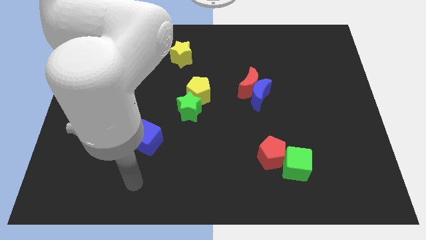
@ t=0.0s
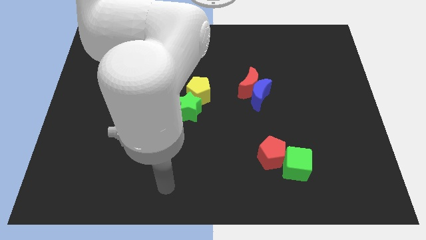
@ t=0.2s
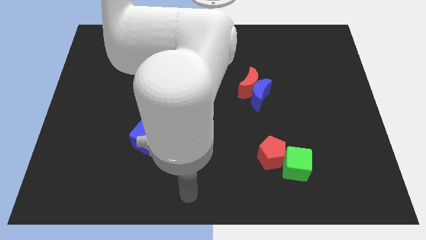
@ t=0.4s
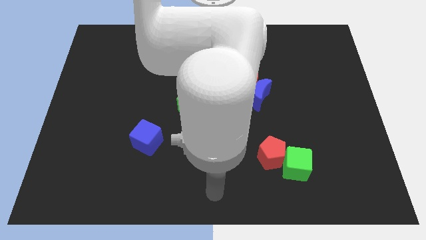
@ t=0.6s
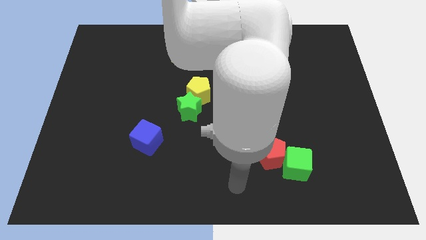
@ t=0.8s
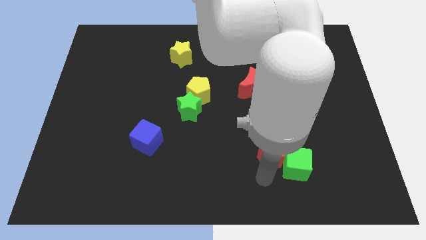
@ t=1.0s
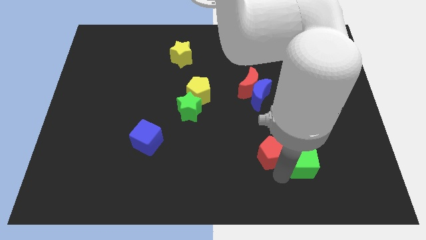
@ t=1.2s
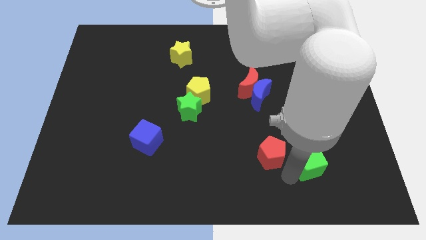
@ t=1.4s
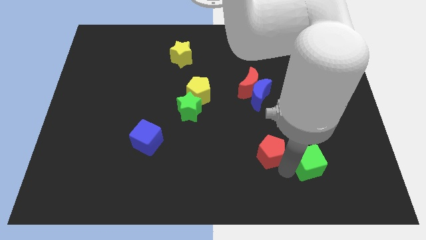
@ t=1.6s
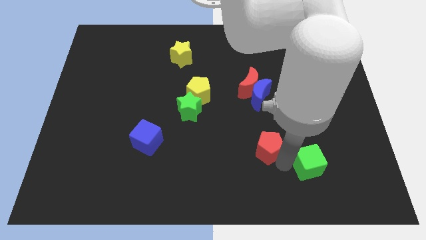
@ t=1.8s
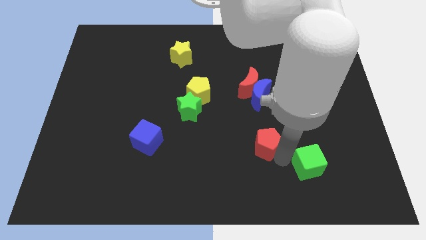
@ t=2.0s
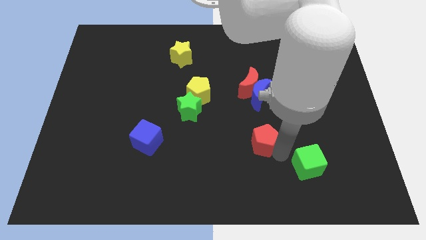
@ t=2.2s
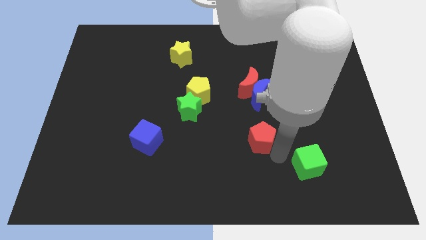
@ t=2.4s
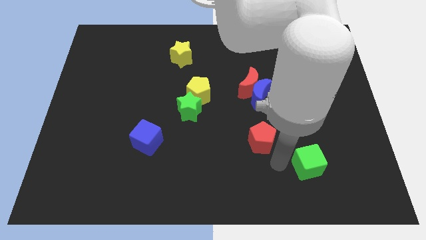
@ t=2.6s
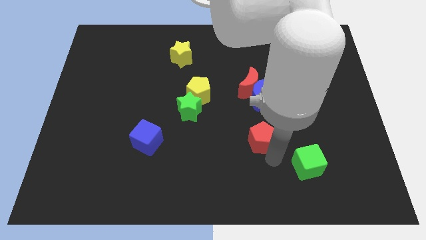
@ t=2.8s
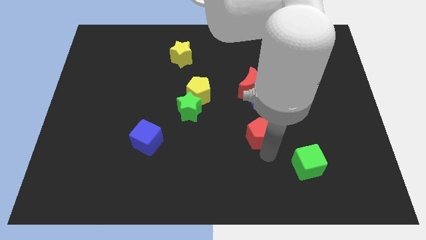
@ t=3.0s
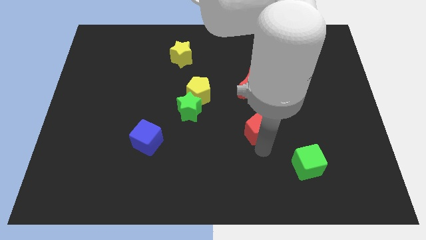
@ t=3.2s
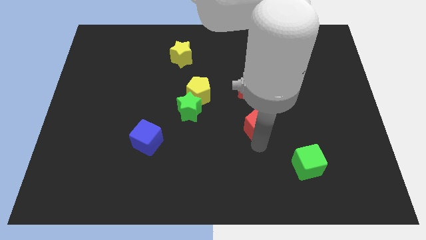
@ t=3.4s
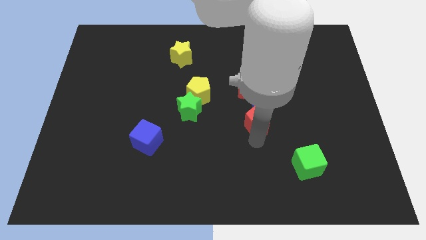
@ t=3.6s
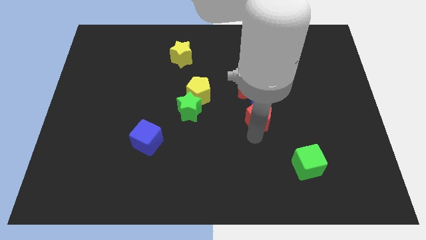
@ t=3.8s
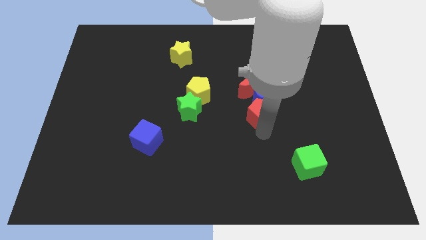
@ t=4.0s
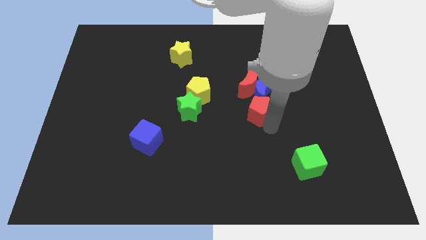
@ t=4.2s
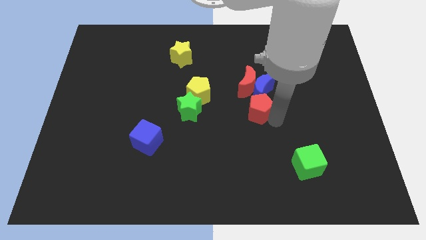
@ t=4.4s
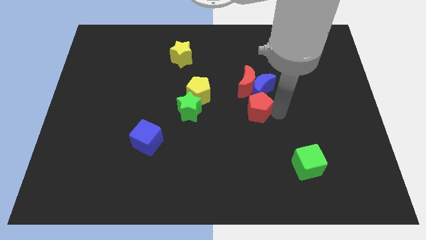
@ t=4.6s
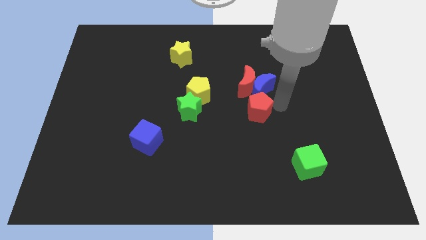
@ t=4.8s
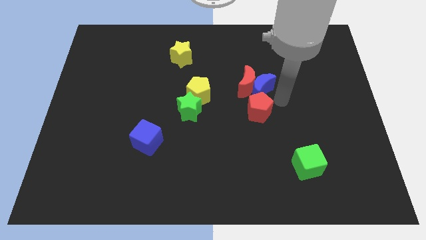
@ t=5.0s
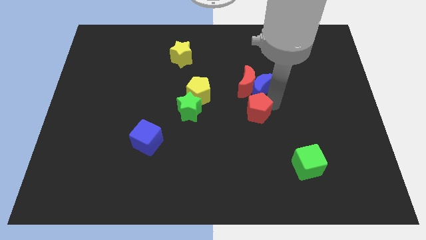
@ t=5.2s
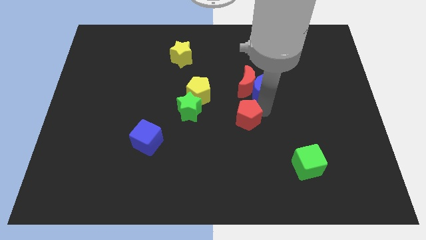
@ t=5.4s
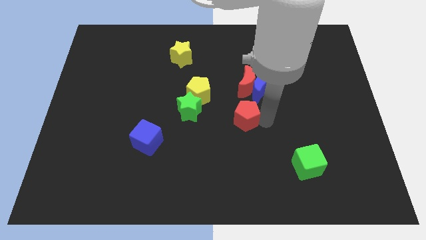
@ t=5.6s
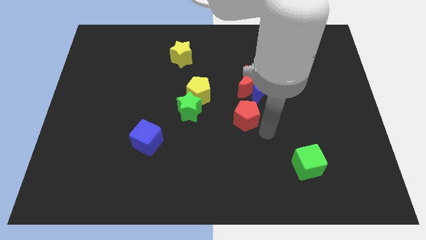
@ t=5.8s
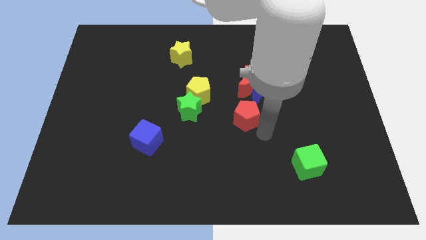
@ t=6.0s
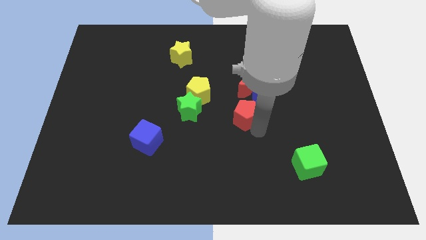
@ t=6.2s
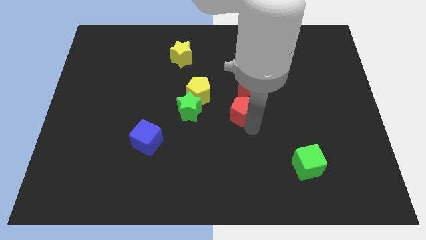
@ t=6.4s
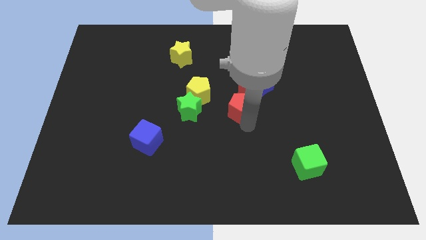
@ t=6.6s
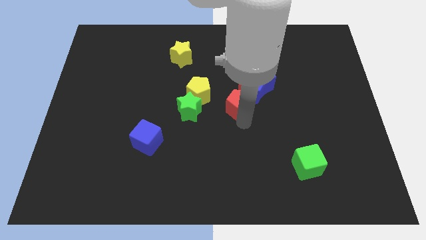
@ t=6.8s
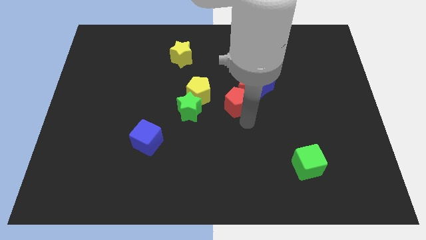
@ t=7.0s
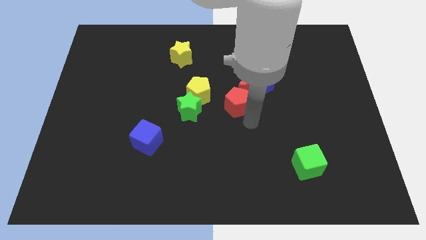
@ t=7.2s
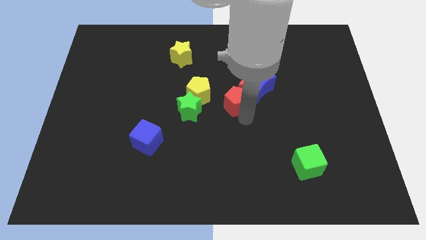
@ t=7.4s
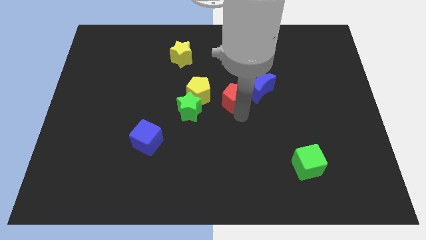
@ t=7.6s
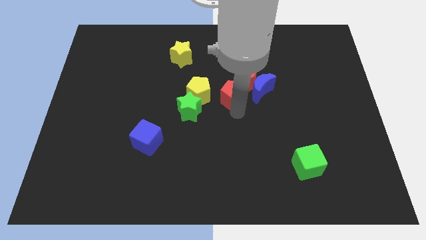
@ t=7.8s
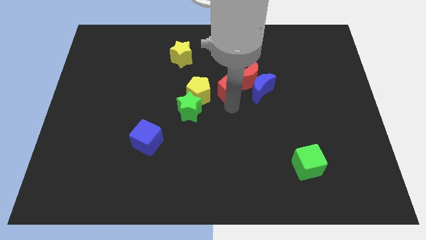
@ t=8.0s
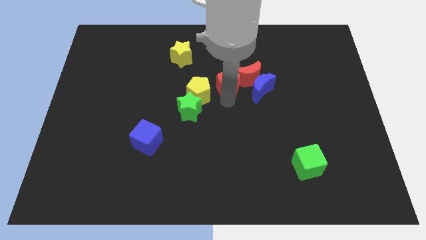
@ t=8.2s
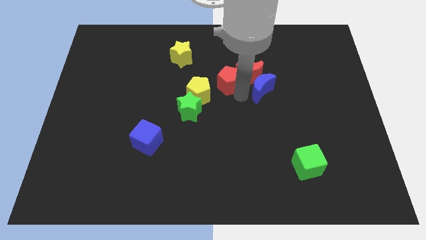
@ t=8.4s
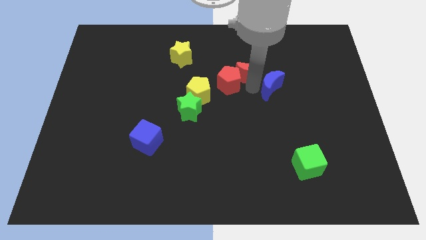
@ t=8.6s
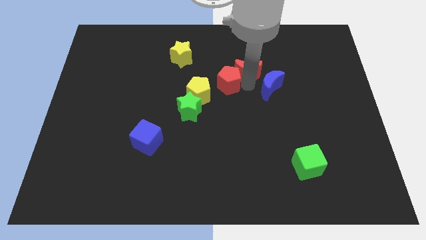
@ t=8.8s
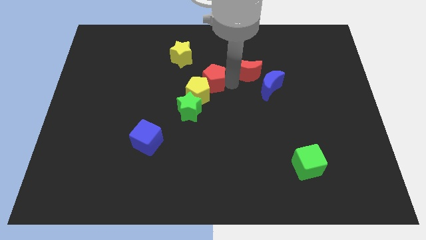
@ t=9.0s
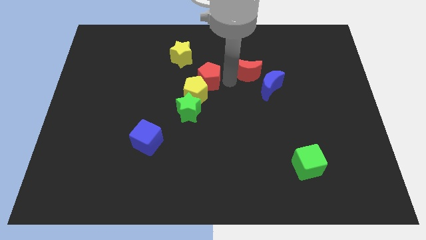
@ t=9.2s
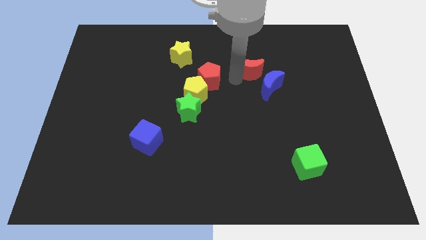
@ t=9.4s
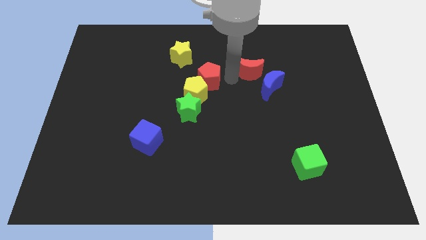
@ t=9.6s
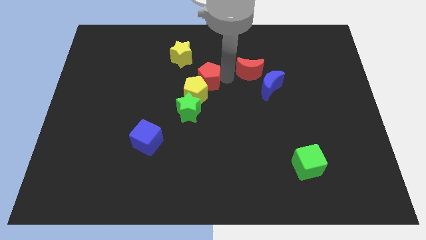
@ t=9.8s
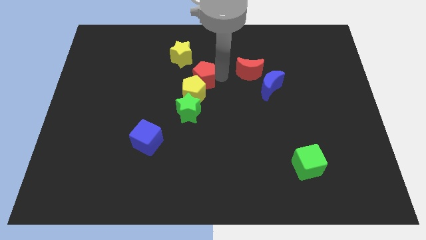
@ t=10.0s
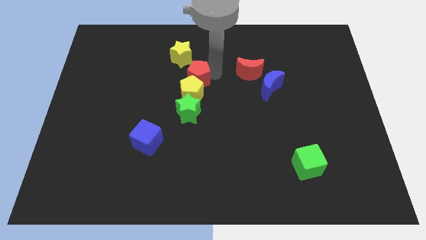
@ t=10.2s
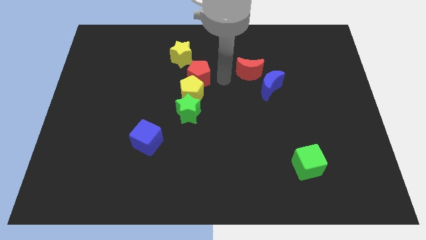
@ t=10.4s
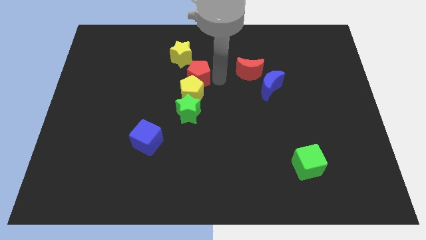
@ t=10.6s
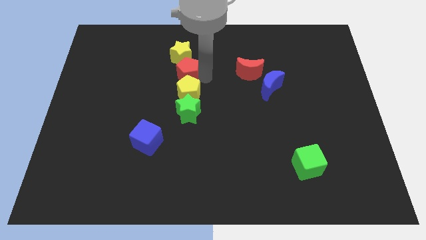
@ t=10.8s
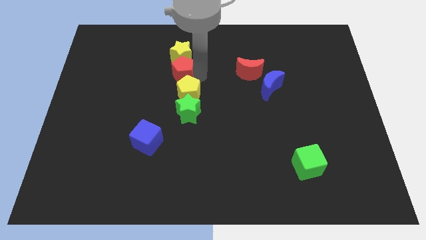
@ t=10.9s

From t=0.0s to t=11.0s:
move the red pentagon to the bottom left of the yellow star

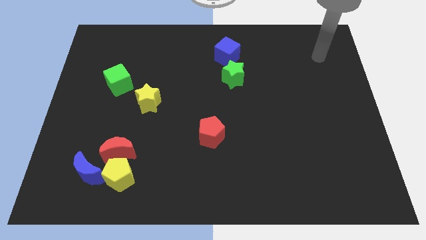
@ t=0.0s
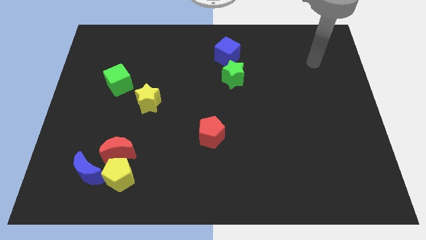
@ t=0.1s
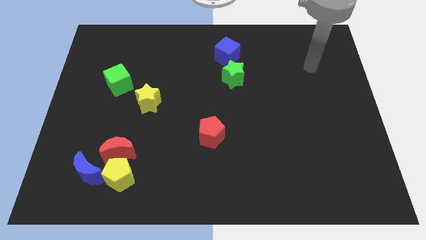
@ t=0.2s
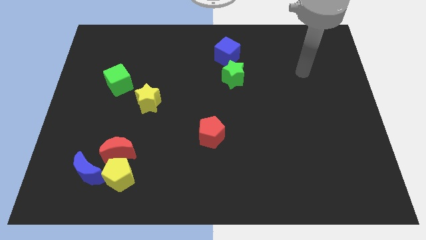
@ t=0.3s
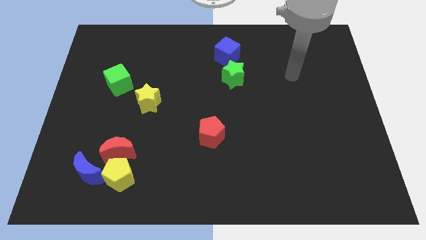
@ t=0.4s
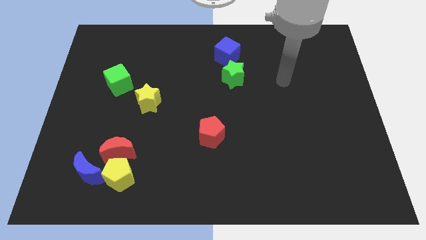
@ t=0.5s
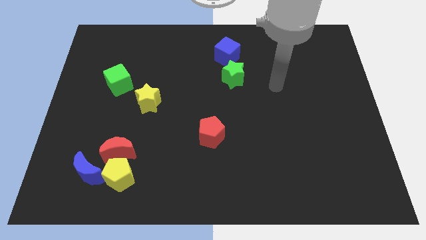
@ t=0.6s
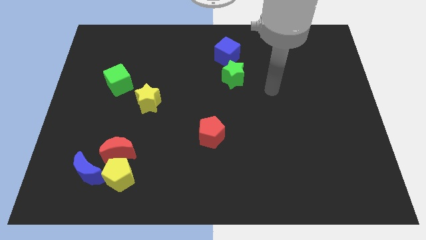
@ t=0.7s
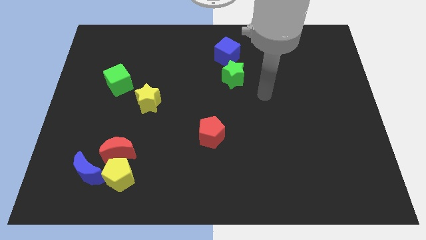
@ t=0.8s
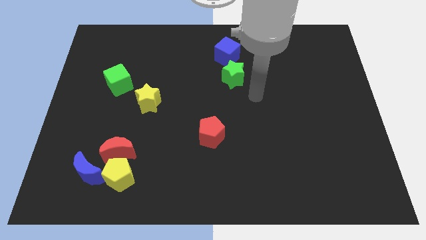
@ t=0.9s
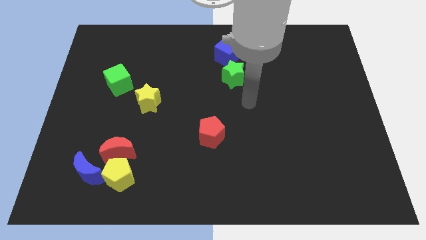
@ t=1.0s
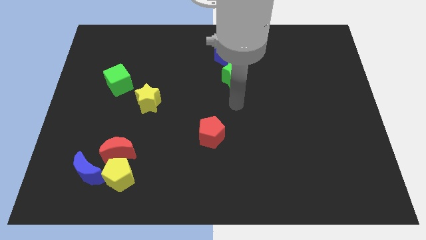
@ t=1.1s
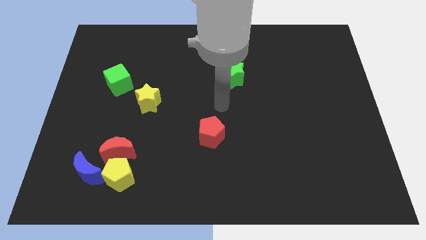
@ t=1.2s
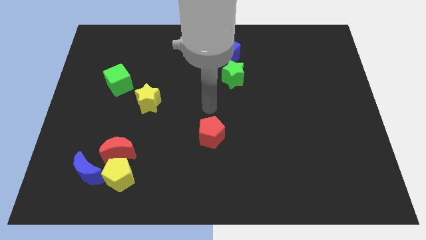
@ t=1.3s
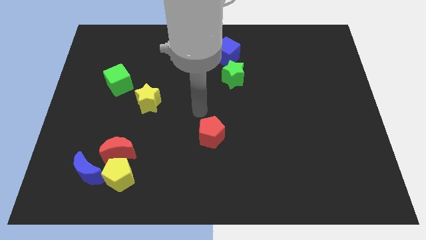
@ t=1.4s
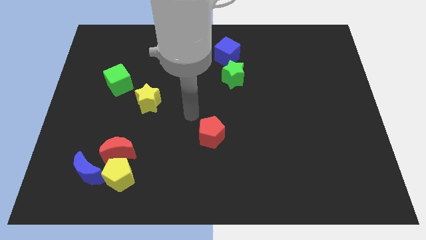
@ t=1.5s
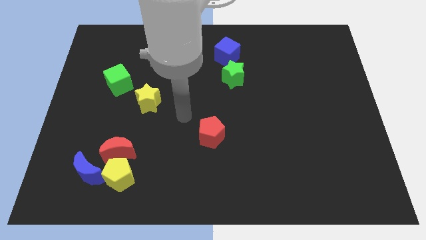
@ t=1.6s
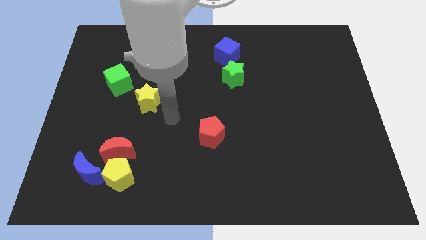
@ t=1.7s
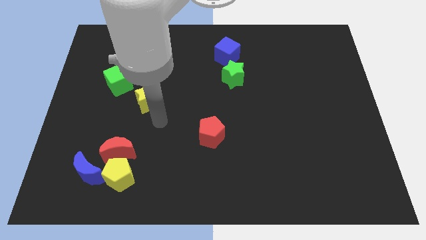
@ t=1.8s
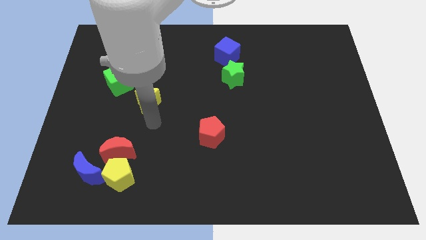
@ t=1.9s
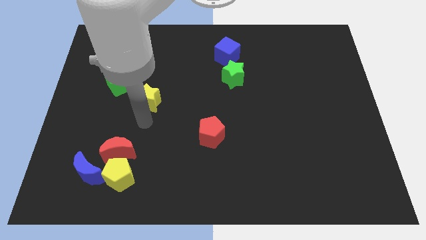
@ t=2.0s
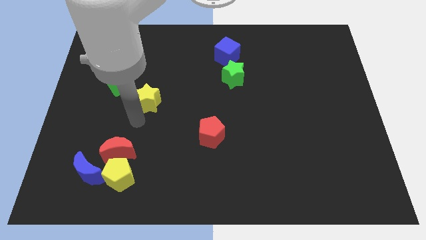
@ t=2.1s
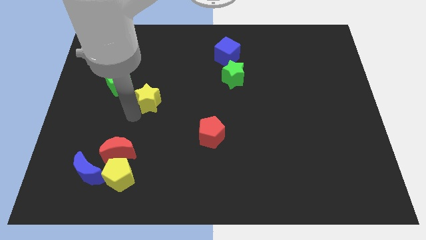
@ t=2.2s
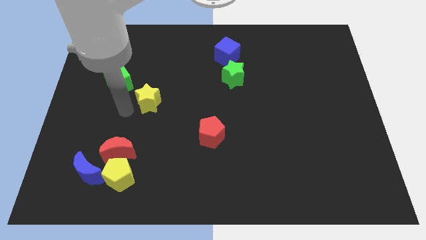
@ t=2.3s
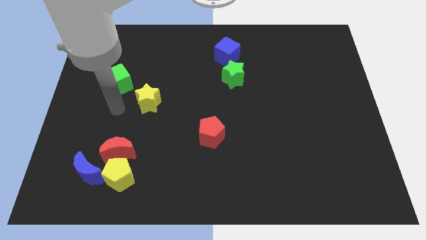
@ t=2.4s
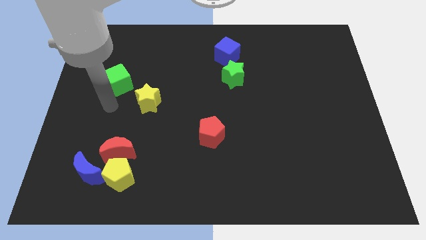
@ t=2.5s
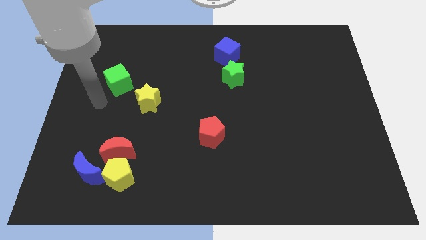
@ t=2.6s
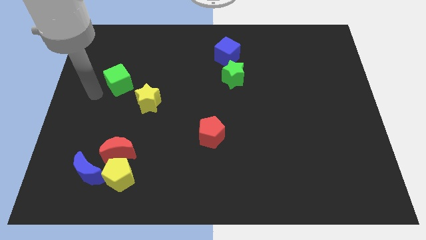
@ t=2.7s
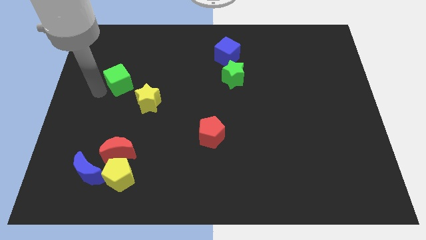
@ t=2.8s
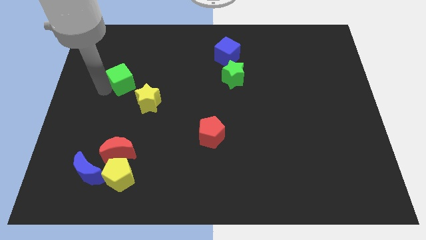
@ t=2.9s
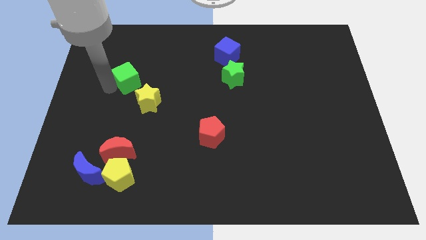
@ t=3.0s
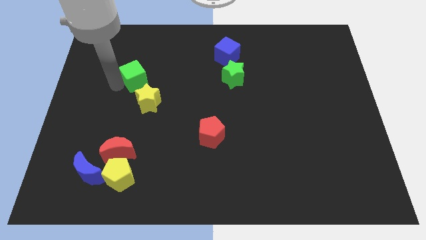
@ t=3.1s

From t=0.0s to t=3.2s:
move the green cube above the yellow star
